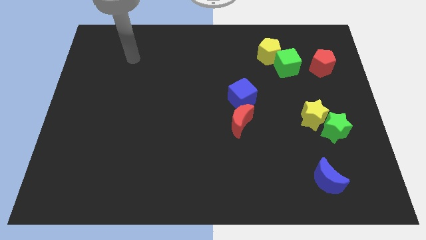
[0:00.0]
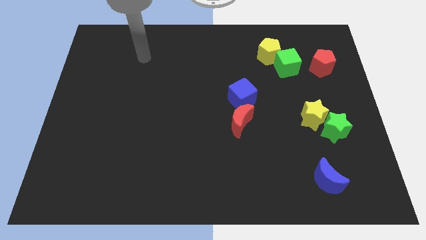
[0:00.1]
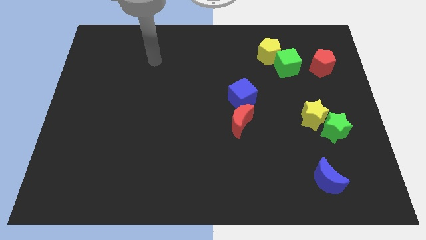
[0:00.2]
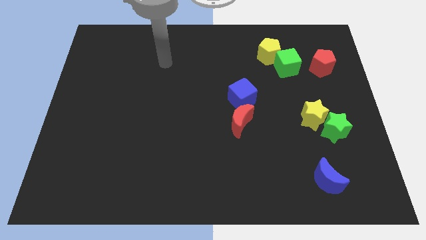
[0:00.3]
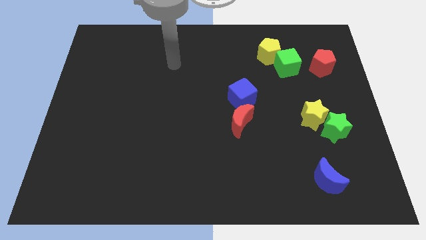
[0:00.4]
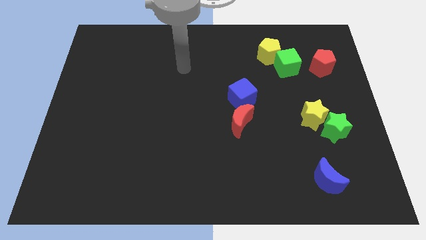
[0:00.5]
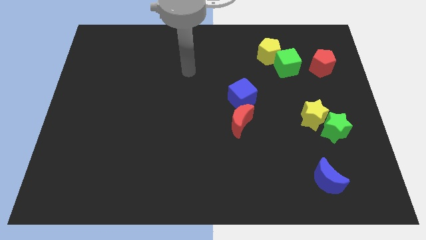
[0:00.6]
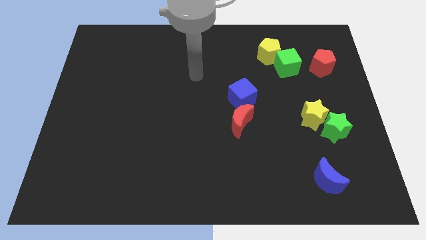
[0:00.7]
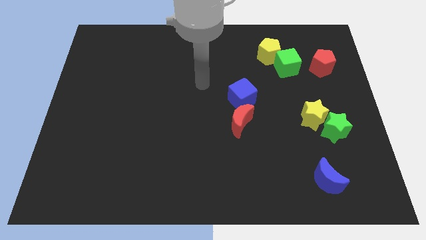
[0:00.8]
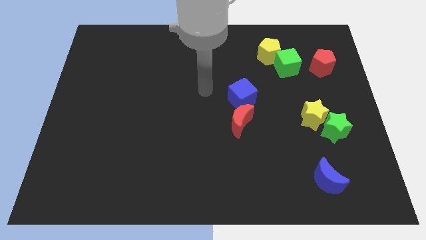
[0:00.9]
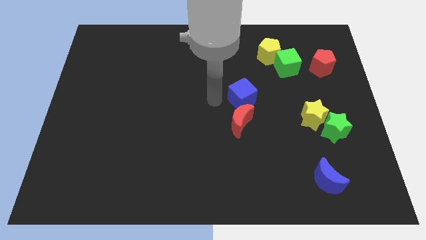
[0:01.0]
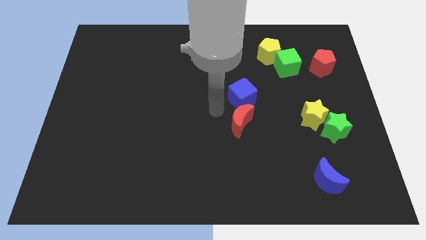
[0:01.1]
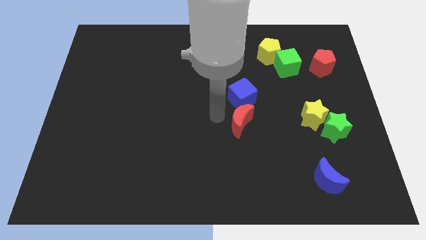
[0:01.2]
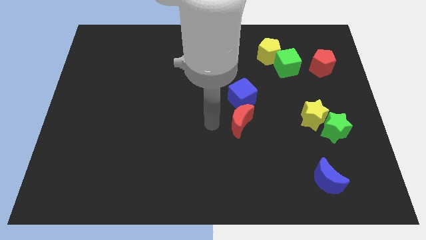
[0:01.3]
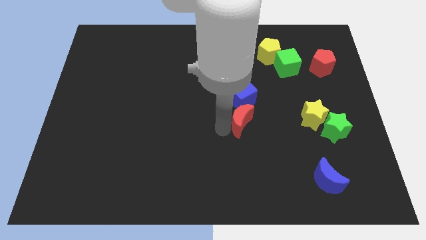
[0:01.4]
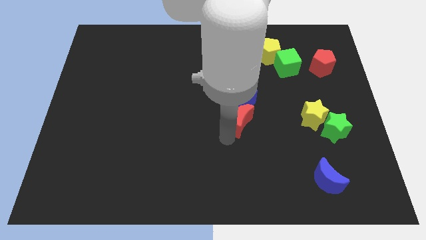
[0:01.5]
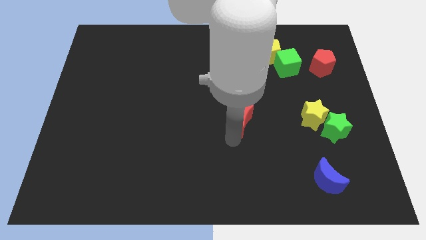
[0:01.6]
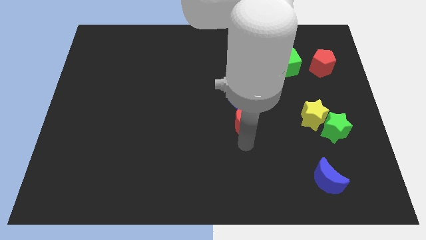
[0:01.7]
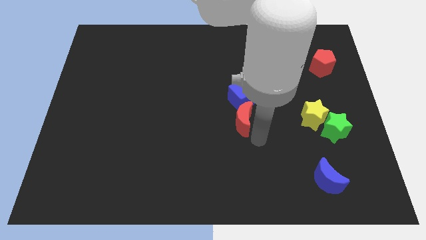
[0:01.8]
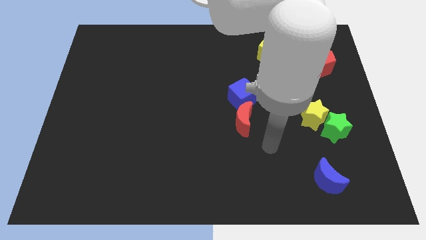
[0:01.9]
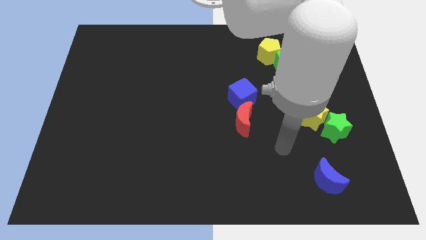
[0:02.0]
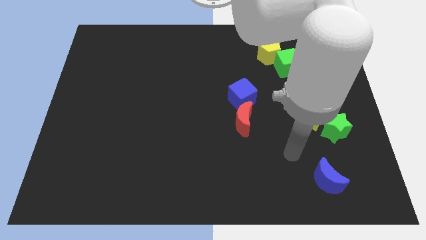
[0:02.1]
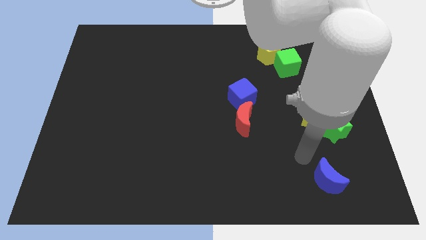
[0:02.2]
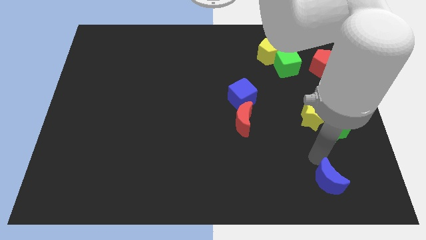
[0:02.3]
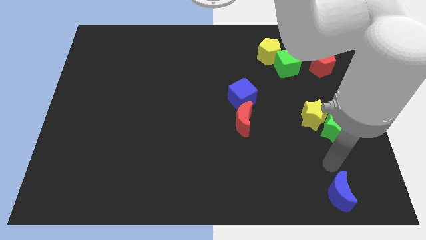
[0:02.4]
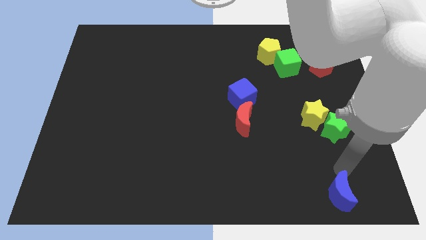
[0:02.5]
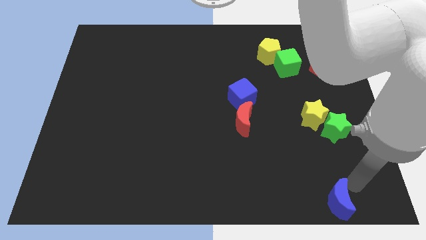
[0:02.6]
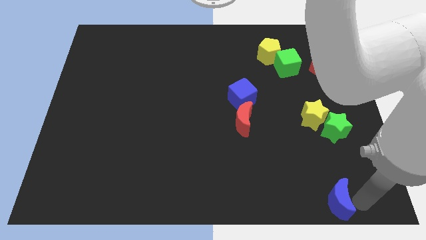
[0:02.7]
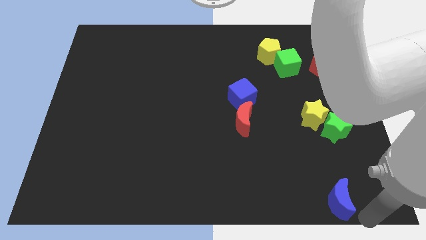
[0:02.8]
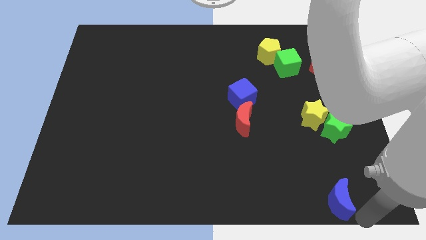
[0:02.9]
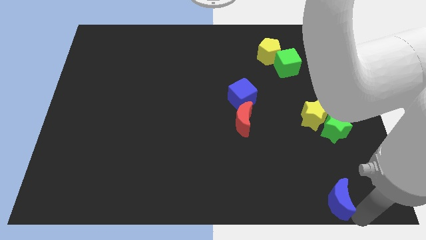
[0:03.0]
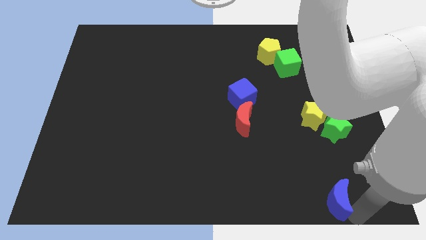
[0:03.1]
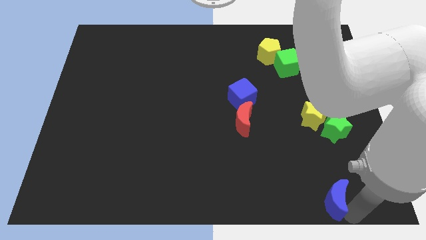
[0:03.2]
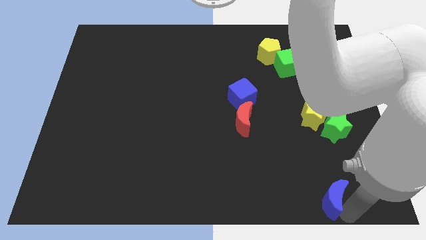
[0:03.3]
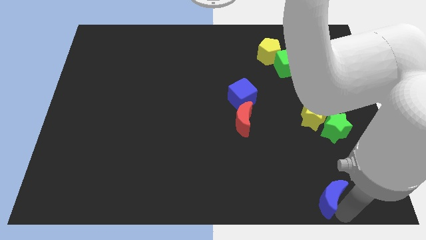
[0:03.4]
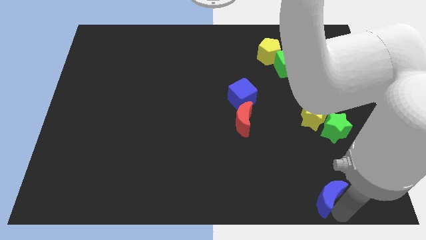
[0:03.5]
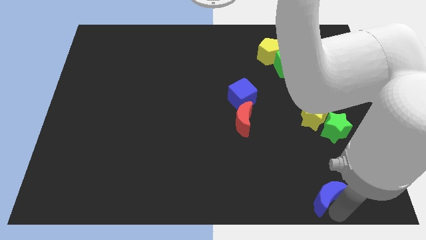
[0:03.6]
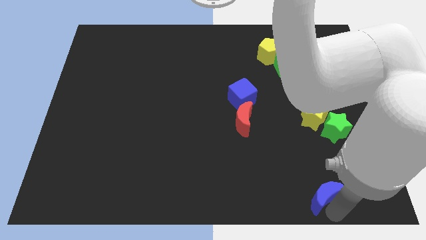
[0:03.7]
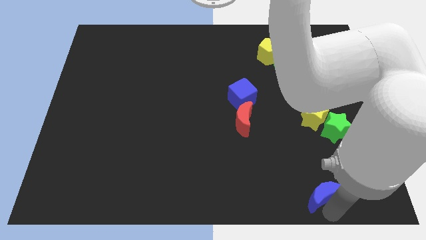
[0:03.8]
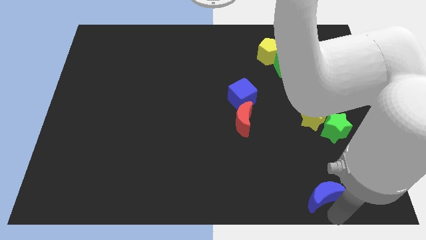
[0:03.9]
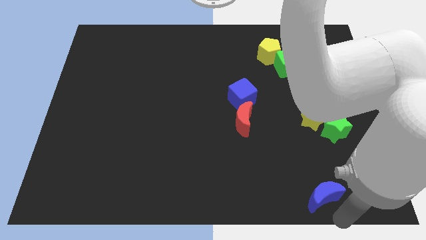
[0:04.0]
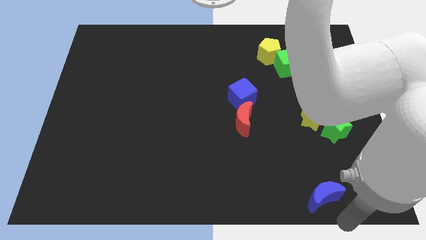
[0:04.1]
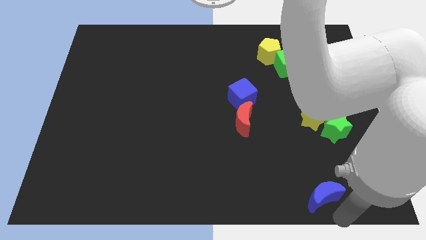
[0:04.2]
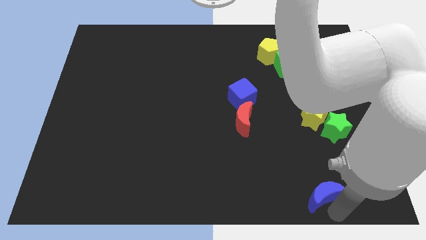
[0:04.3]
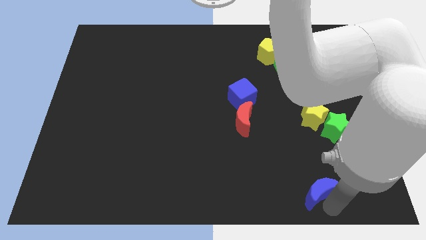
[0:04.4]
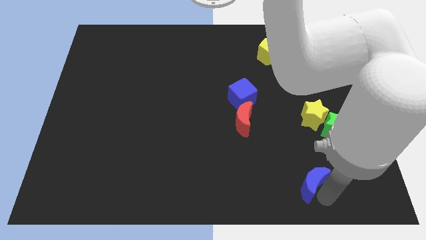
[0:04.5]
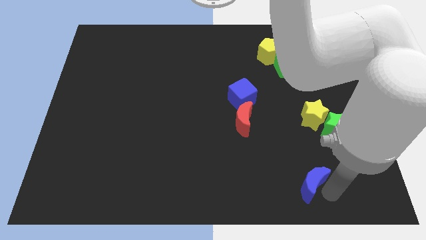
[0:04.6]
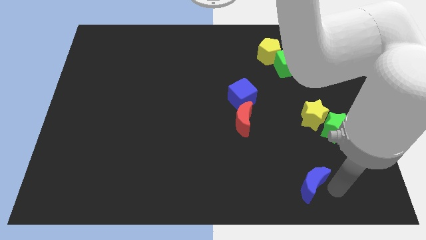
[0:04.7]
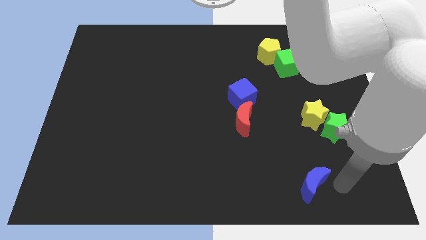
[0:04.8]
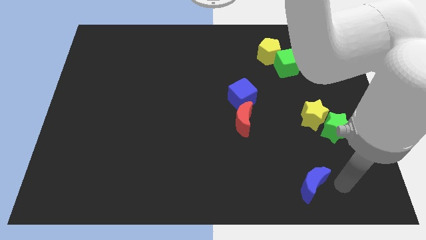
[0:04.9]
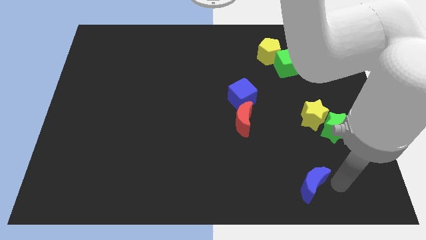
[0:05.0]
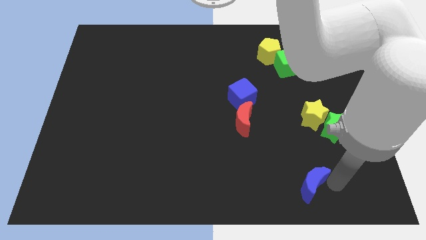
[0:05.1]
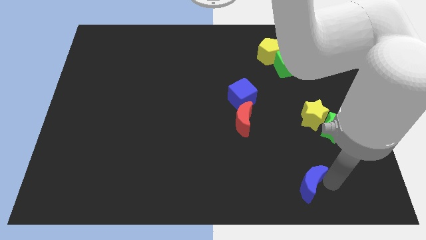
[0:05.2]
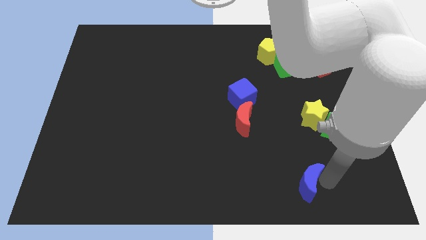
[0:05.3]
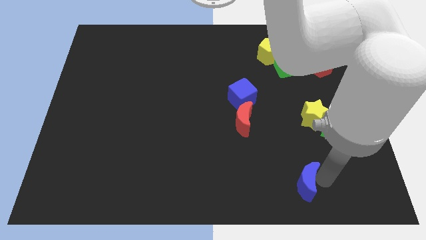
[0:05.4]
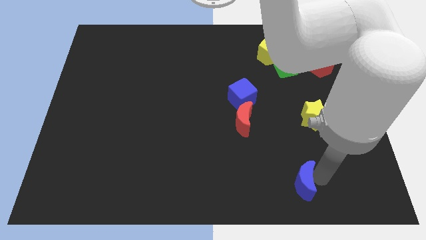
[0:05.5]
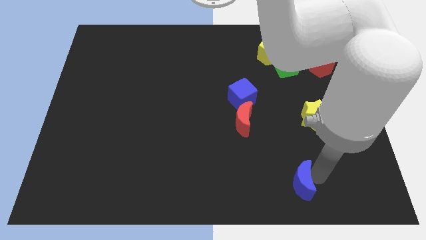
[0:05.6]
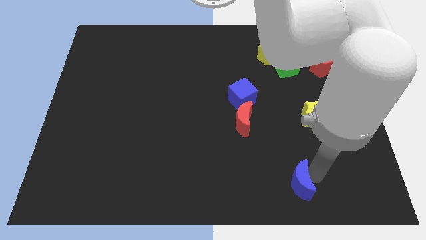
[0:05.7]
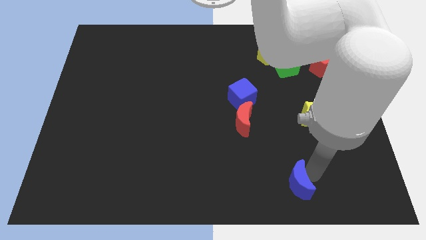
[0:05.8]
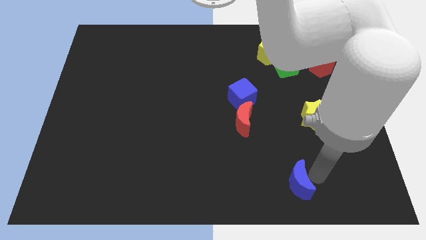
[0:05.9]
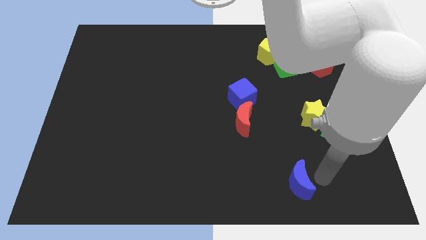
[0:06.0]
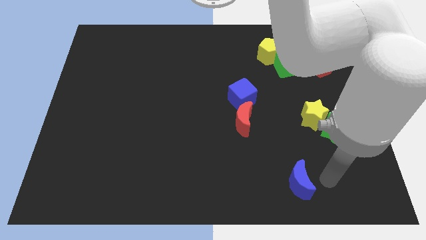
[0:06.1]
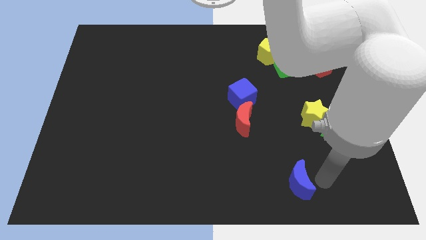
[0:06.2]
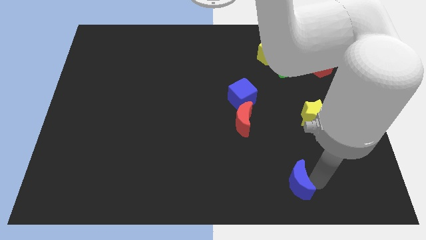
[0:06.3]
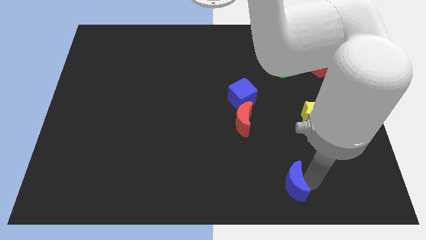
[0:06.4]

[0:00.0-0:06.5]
slide the blue moon to the left slightly

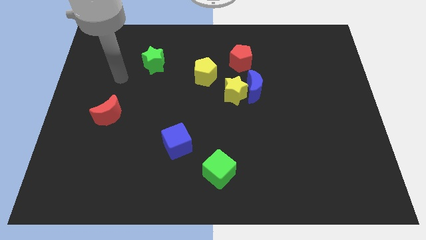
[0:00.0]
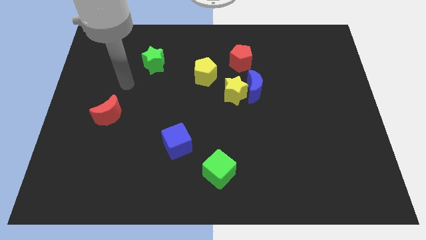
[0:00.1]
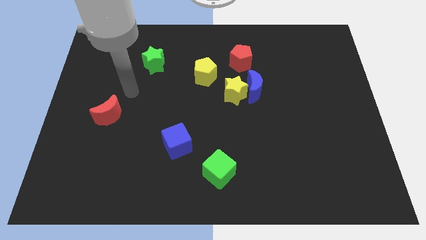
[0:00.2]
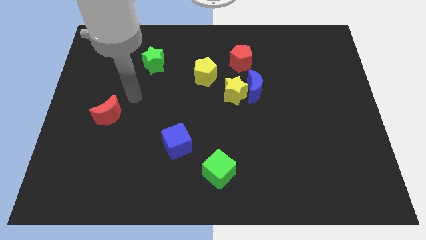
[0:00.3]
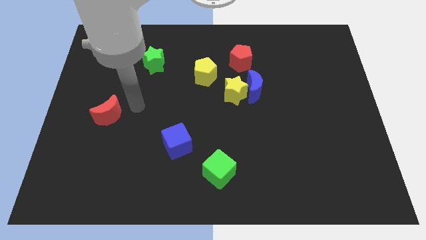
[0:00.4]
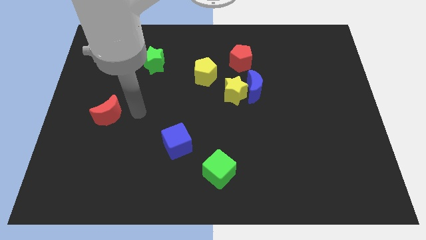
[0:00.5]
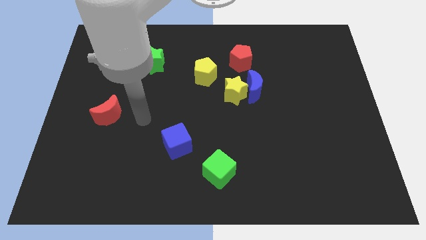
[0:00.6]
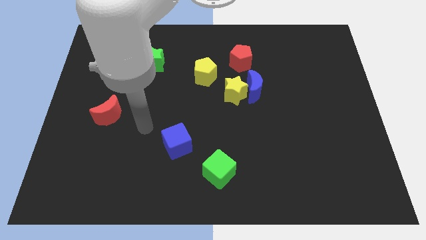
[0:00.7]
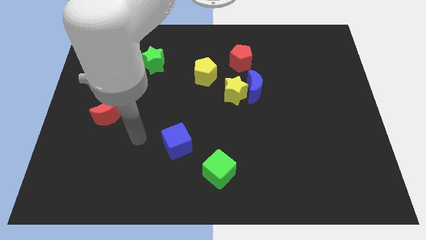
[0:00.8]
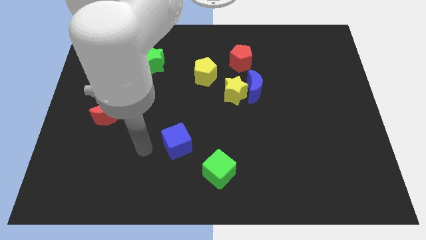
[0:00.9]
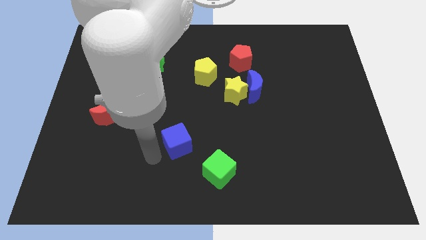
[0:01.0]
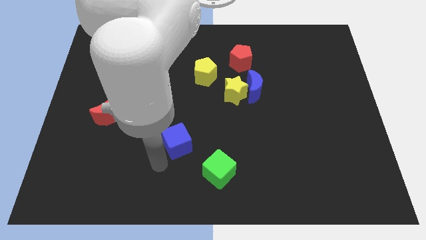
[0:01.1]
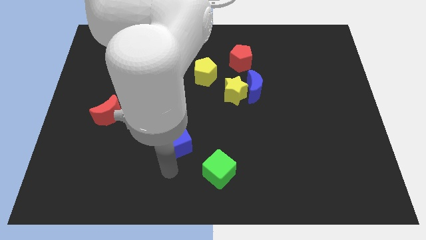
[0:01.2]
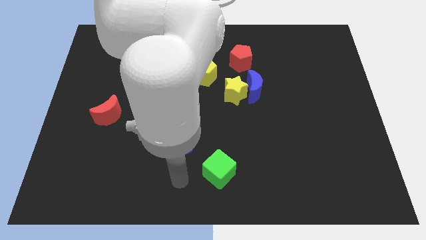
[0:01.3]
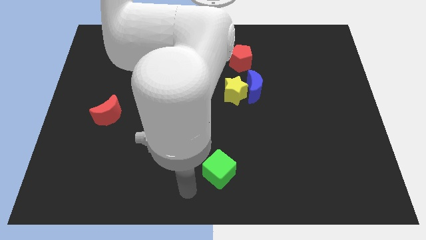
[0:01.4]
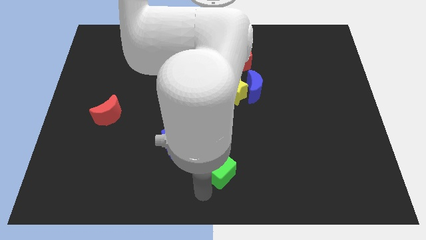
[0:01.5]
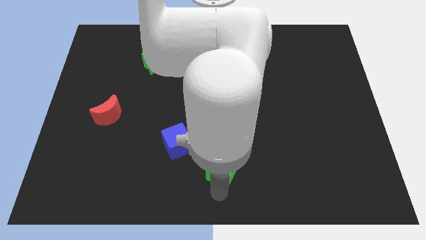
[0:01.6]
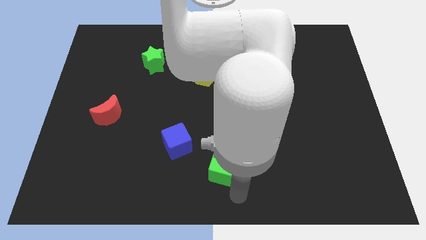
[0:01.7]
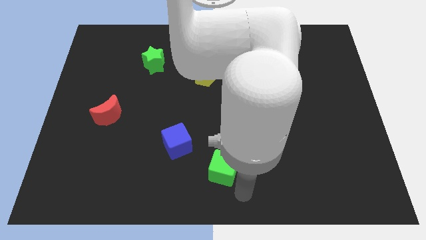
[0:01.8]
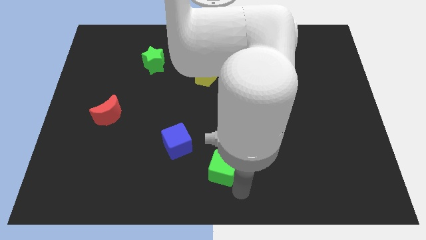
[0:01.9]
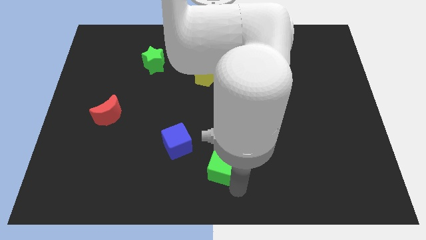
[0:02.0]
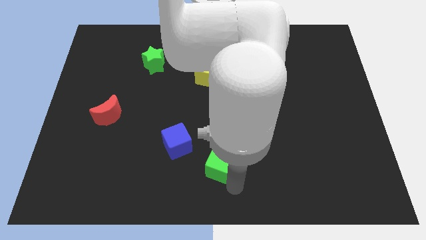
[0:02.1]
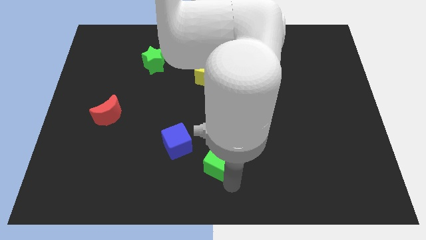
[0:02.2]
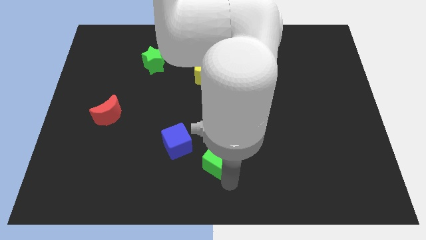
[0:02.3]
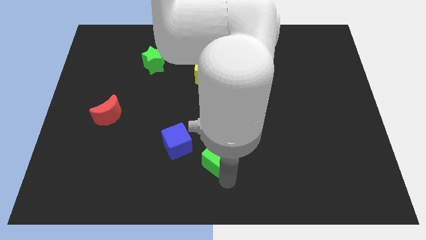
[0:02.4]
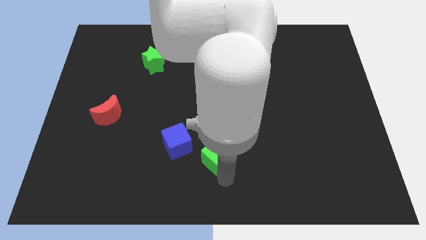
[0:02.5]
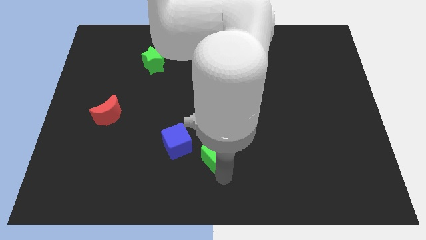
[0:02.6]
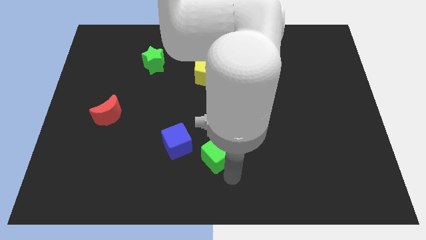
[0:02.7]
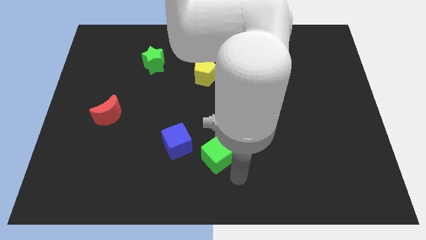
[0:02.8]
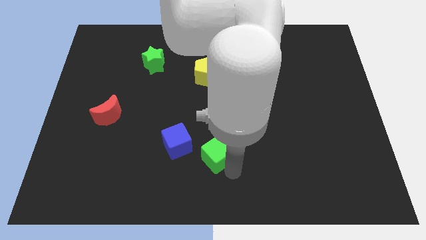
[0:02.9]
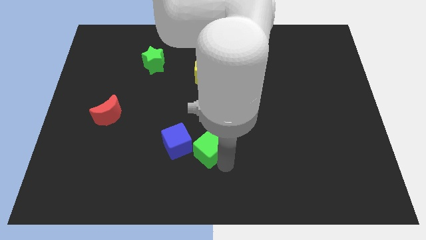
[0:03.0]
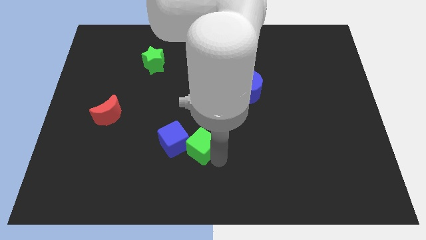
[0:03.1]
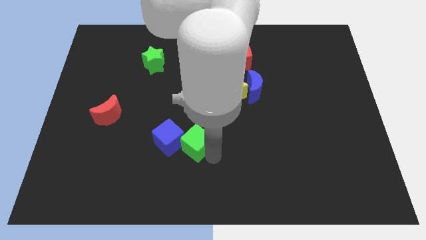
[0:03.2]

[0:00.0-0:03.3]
slightly push the green cube up and left diagonally
